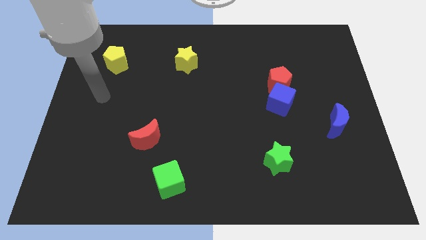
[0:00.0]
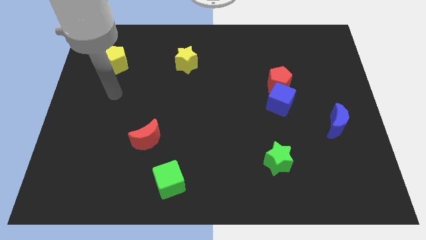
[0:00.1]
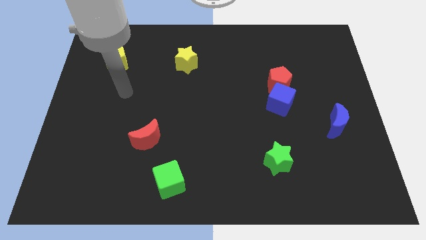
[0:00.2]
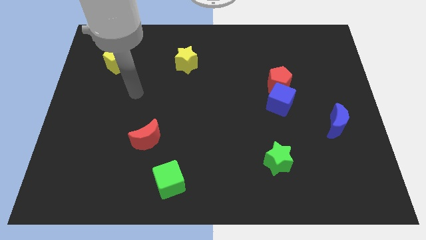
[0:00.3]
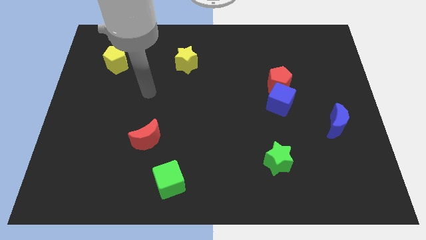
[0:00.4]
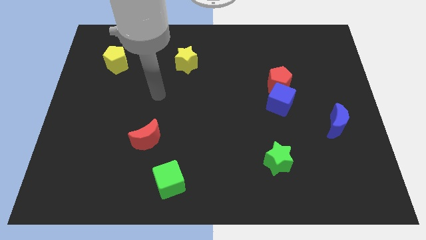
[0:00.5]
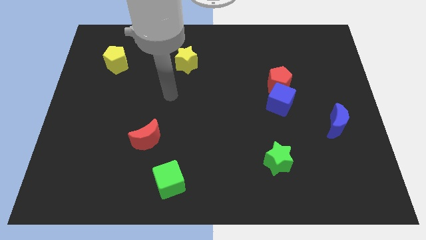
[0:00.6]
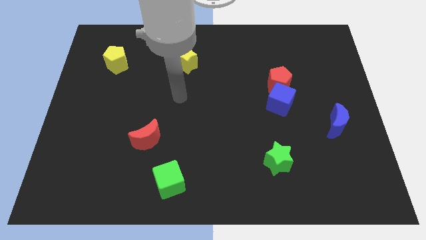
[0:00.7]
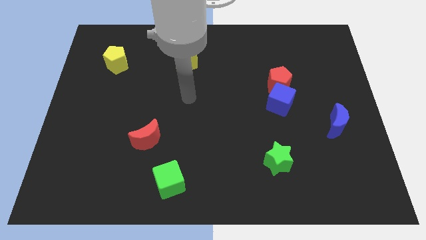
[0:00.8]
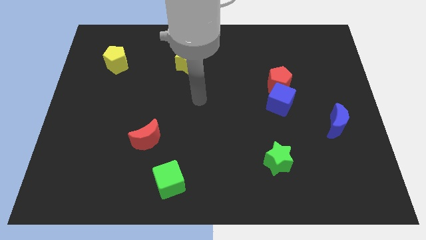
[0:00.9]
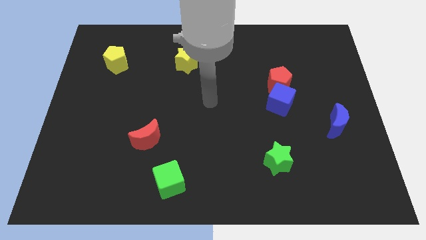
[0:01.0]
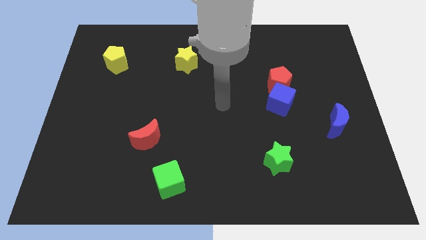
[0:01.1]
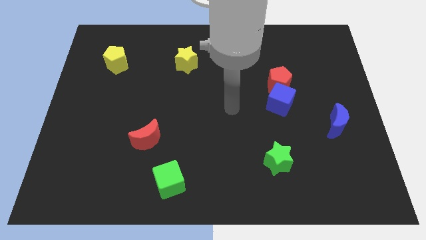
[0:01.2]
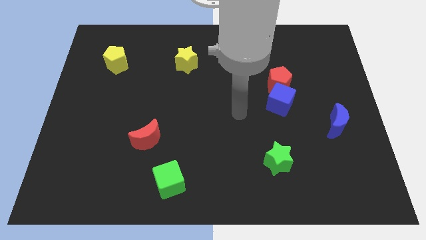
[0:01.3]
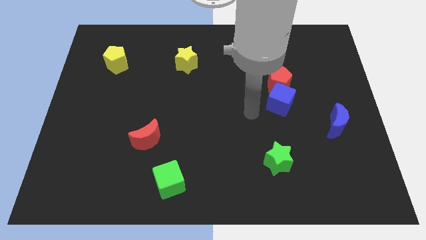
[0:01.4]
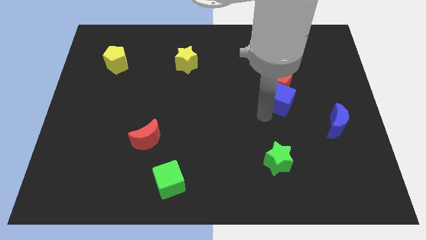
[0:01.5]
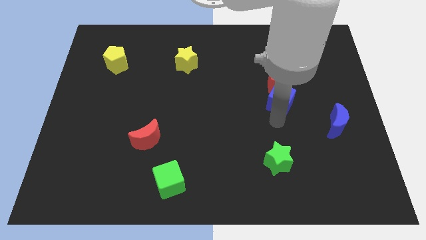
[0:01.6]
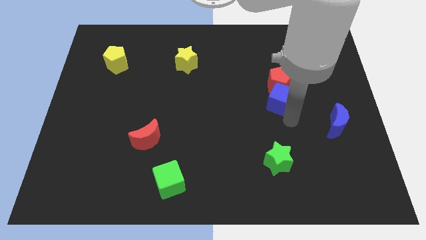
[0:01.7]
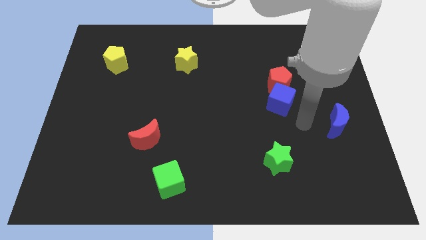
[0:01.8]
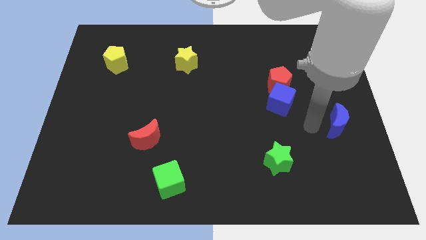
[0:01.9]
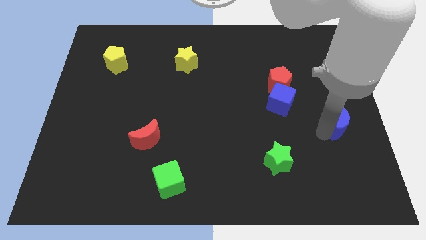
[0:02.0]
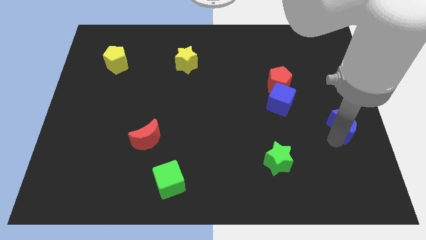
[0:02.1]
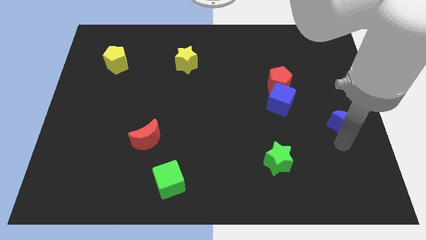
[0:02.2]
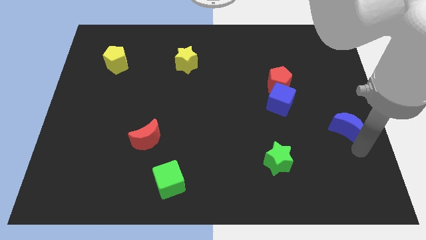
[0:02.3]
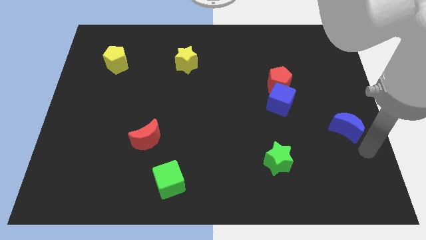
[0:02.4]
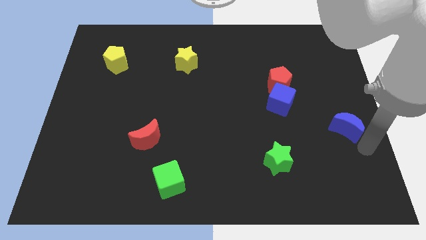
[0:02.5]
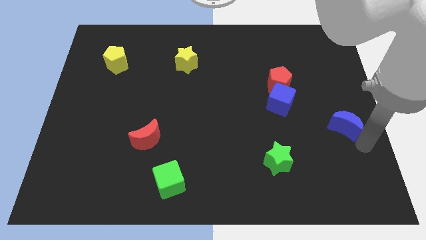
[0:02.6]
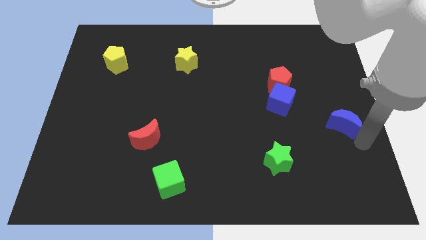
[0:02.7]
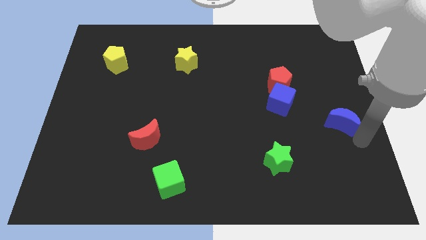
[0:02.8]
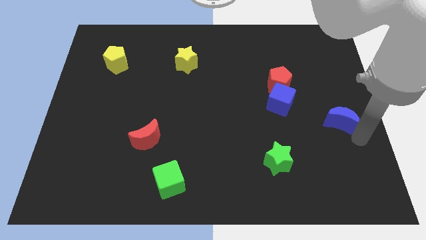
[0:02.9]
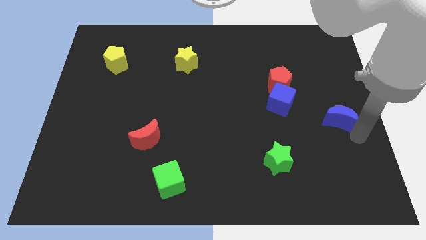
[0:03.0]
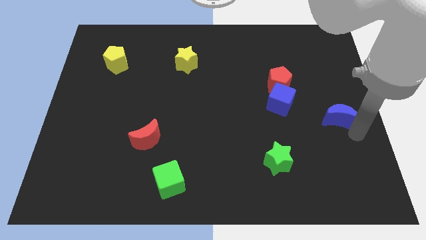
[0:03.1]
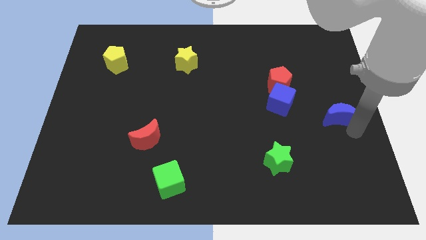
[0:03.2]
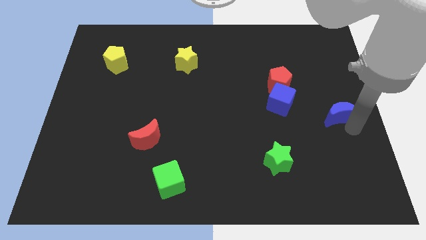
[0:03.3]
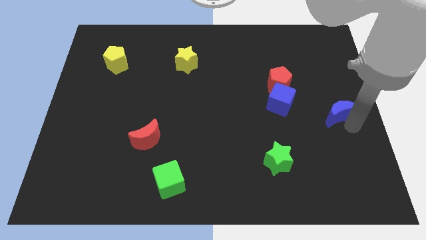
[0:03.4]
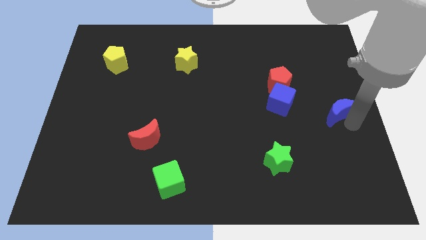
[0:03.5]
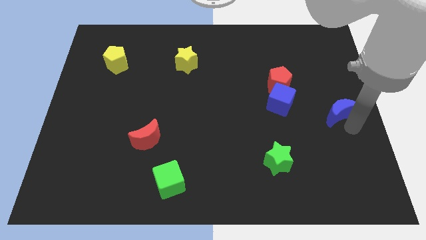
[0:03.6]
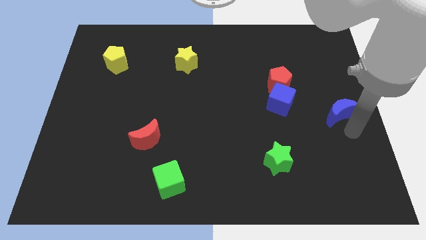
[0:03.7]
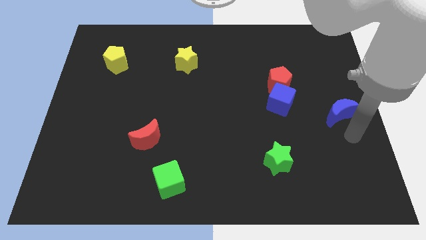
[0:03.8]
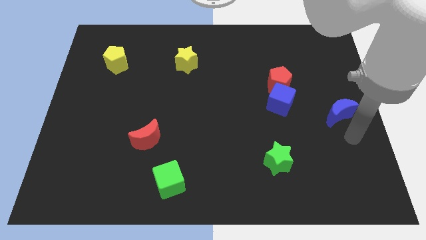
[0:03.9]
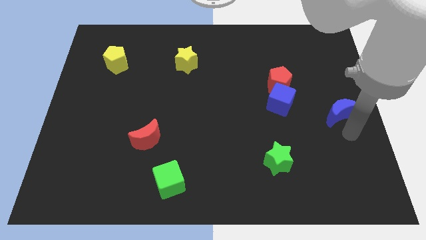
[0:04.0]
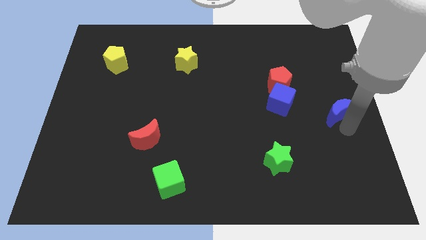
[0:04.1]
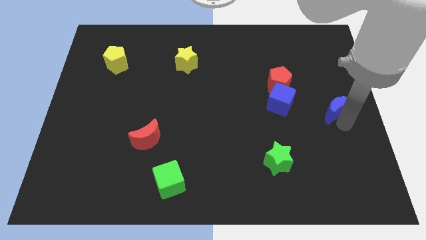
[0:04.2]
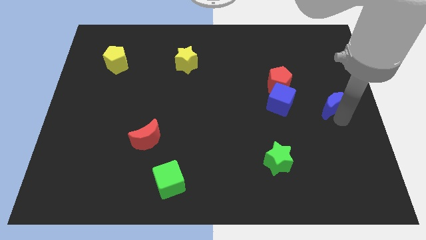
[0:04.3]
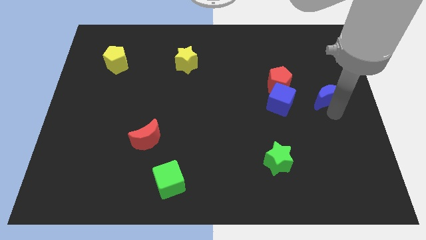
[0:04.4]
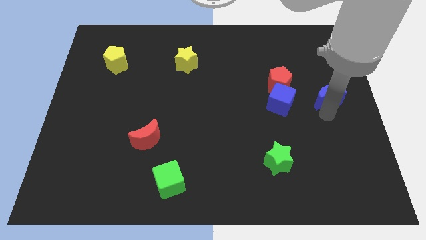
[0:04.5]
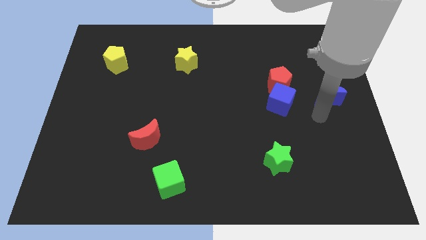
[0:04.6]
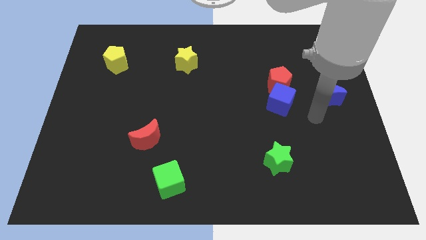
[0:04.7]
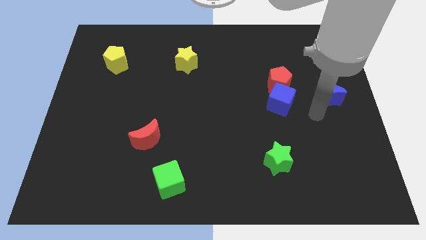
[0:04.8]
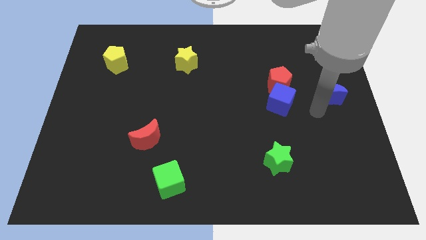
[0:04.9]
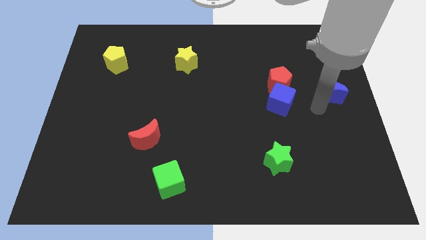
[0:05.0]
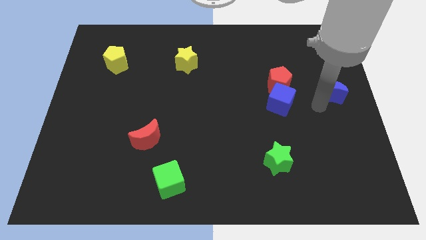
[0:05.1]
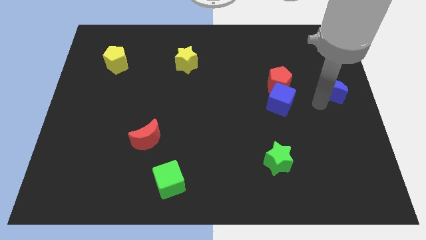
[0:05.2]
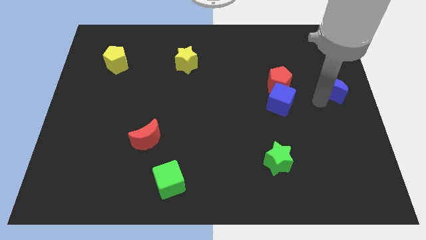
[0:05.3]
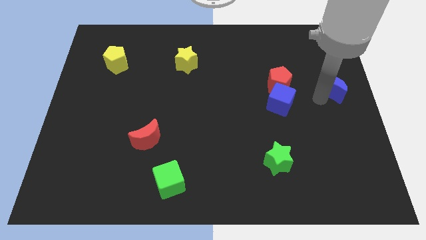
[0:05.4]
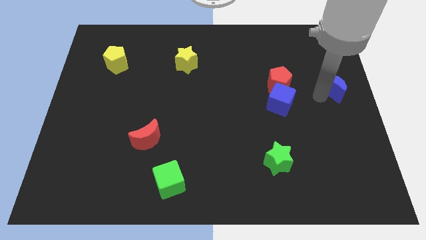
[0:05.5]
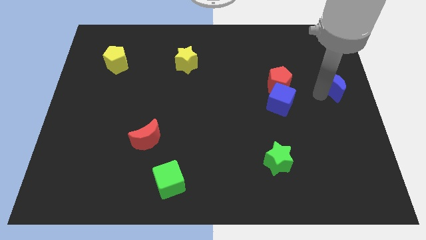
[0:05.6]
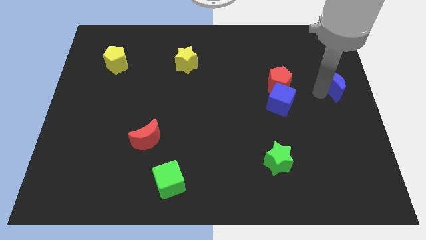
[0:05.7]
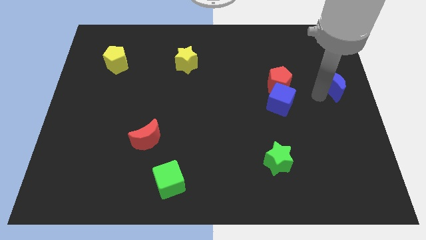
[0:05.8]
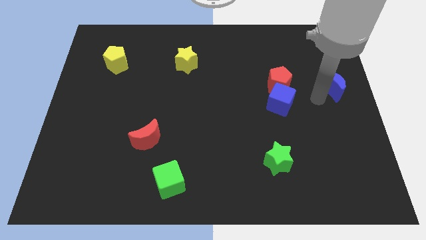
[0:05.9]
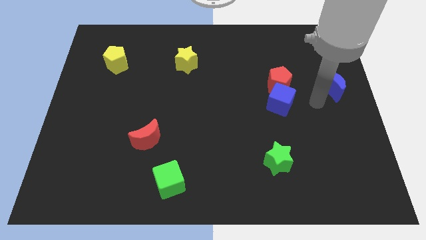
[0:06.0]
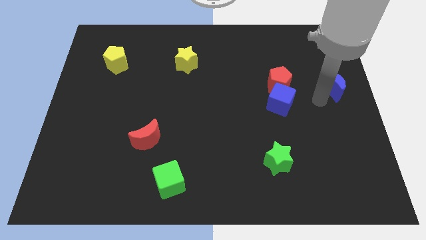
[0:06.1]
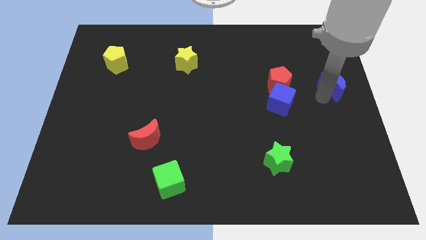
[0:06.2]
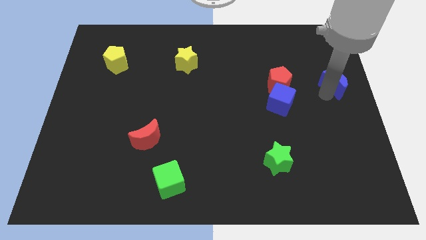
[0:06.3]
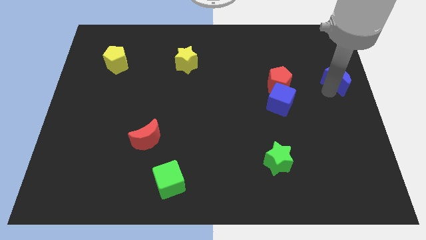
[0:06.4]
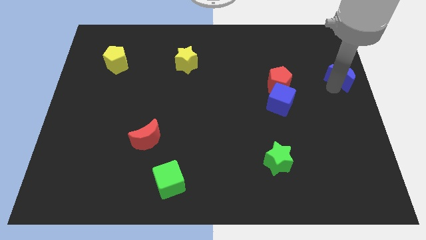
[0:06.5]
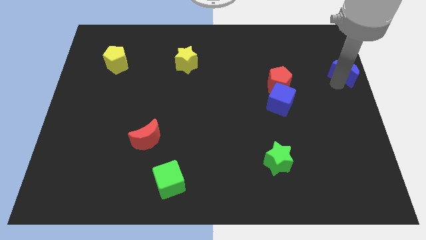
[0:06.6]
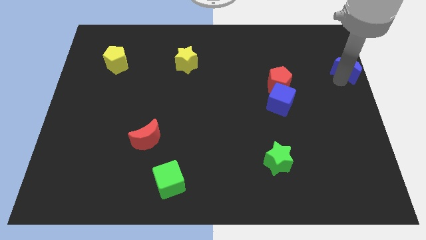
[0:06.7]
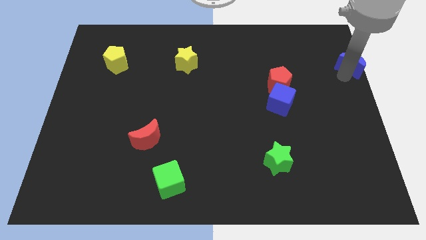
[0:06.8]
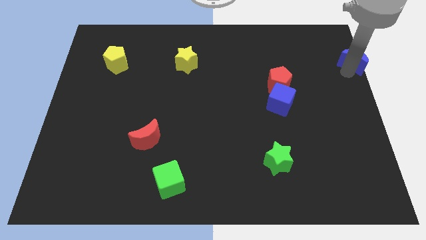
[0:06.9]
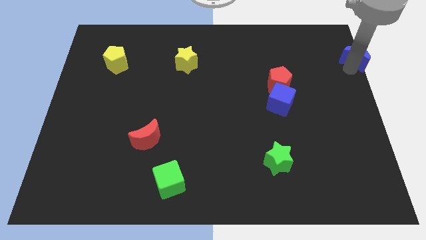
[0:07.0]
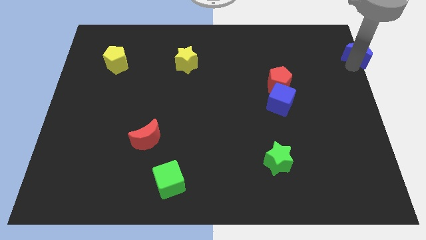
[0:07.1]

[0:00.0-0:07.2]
slide the blue moon to the top right corner
